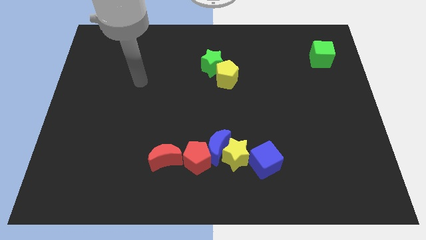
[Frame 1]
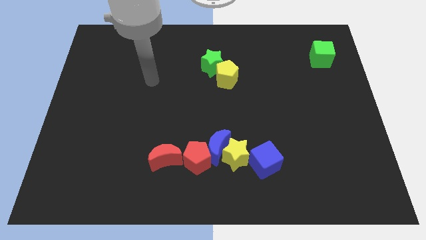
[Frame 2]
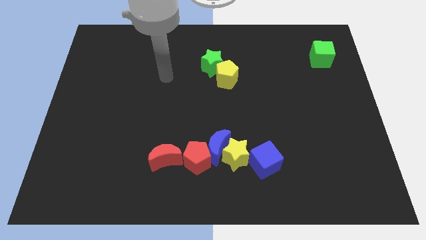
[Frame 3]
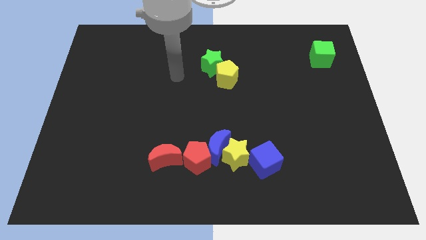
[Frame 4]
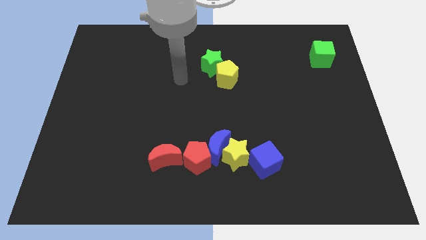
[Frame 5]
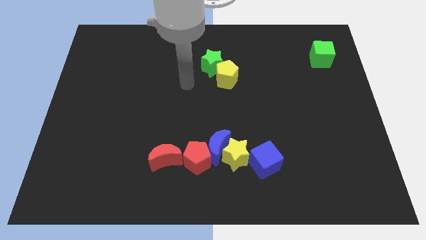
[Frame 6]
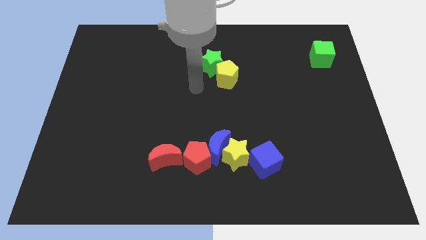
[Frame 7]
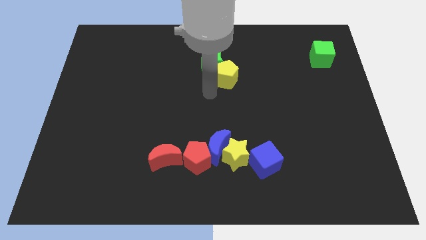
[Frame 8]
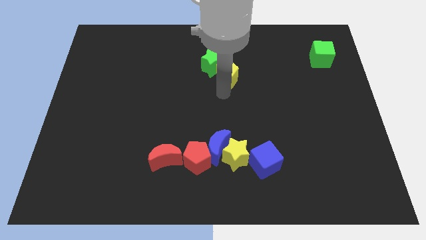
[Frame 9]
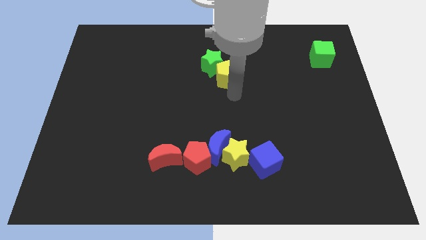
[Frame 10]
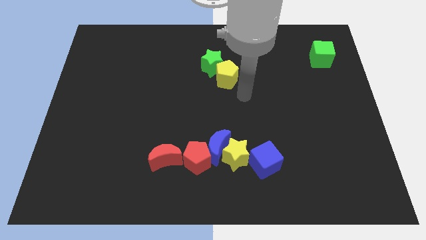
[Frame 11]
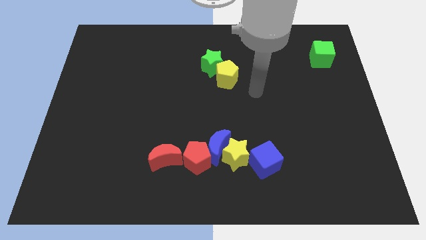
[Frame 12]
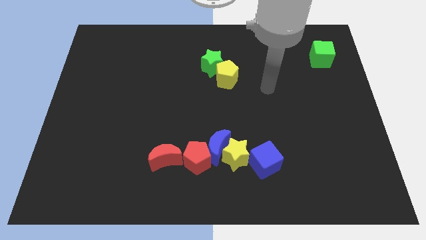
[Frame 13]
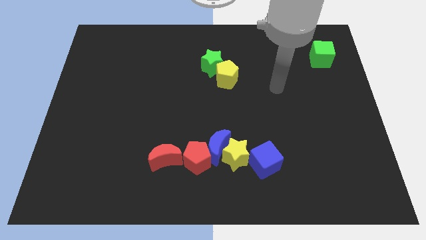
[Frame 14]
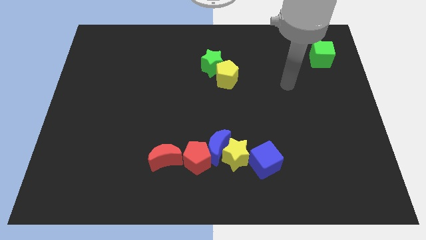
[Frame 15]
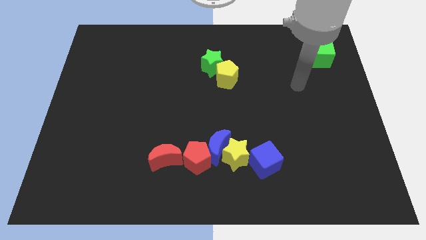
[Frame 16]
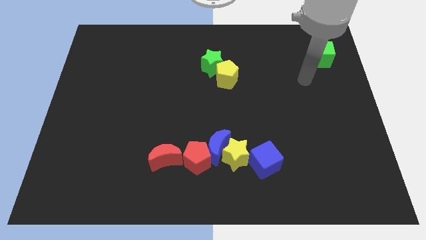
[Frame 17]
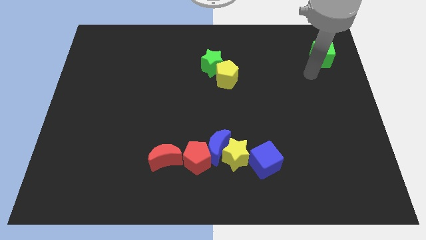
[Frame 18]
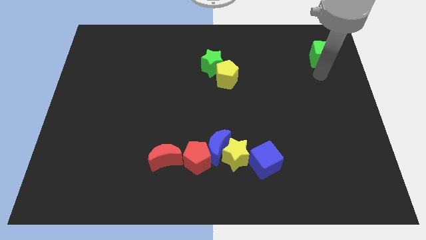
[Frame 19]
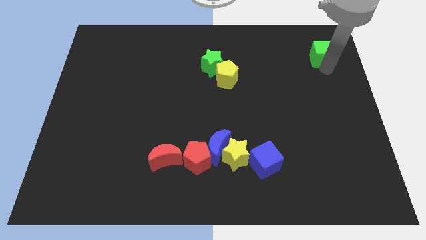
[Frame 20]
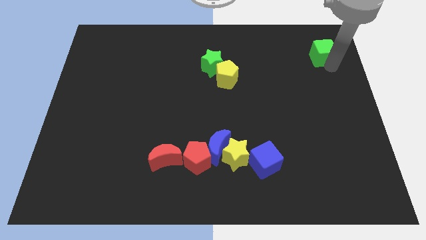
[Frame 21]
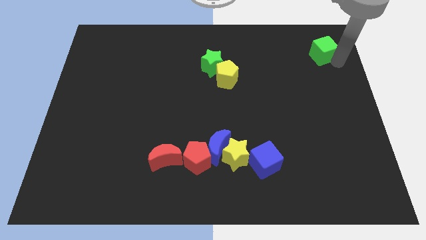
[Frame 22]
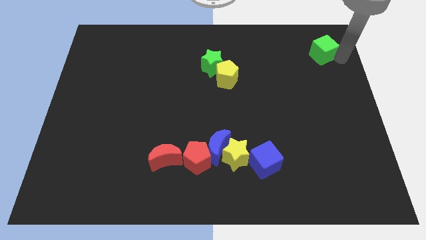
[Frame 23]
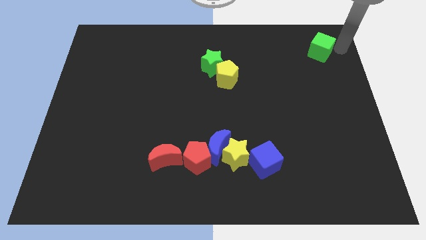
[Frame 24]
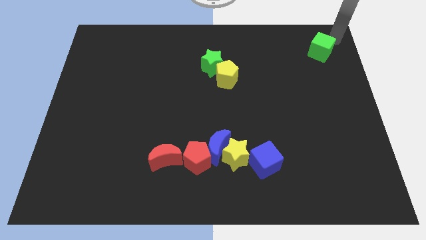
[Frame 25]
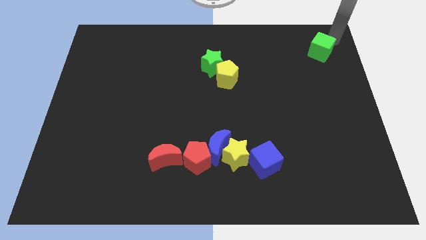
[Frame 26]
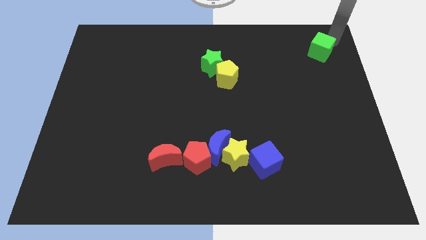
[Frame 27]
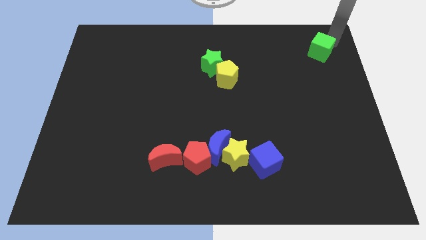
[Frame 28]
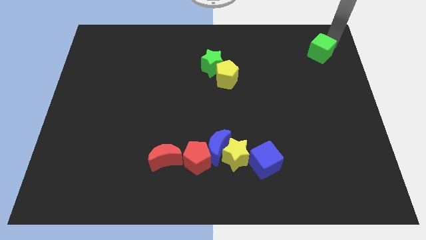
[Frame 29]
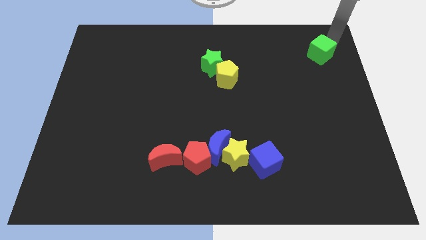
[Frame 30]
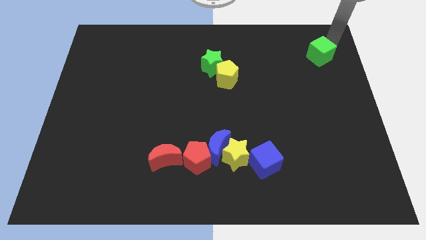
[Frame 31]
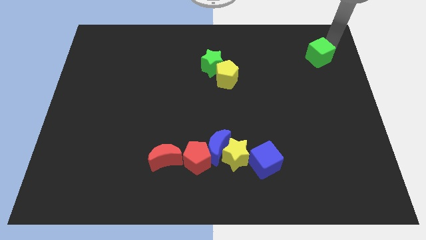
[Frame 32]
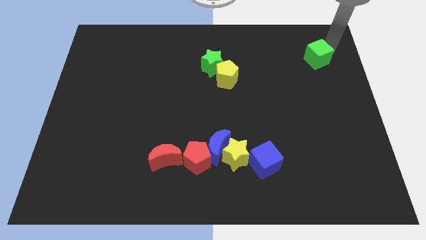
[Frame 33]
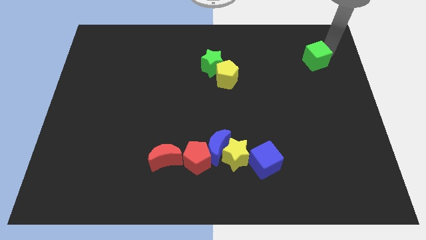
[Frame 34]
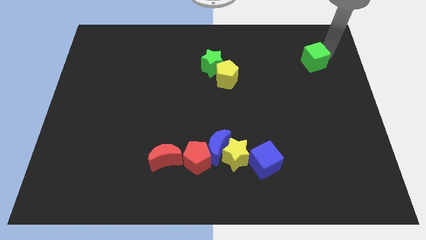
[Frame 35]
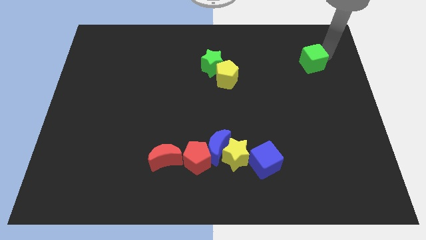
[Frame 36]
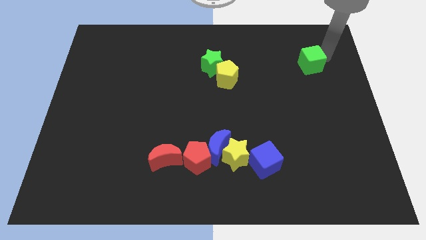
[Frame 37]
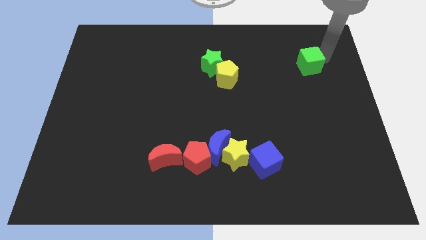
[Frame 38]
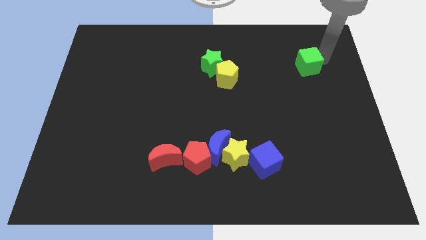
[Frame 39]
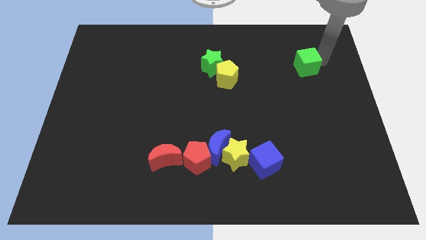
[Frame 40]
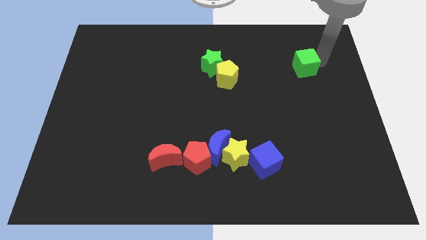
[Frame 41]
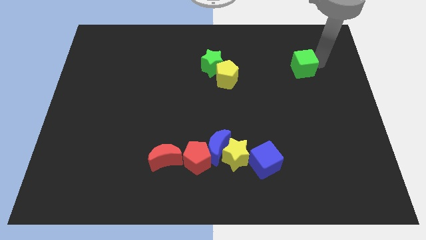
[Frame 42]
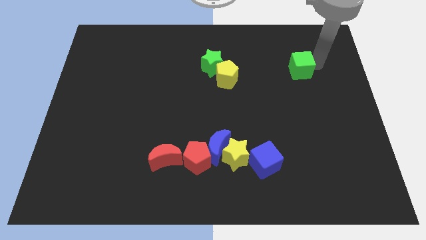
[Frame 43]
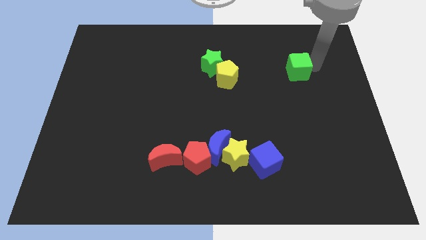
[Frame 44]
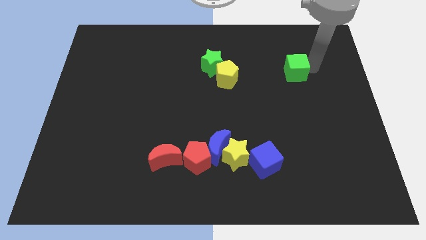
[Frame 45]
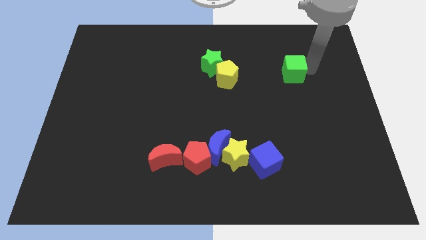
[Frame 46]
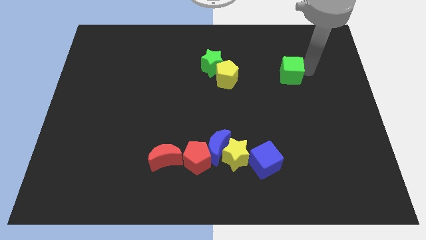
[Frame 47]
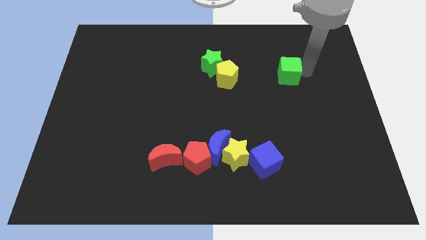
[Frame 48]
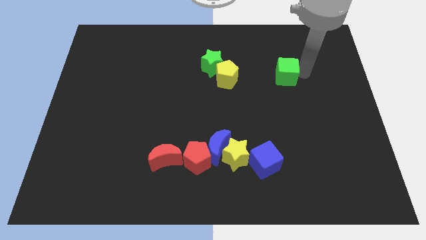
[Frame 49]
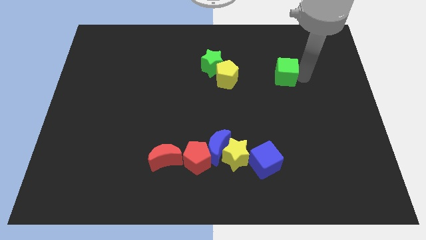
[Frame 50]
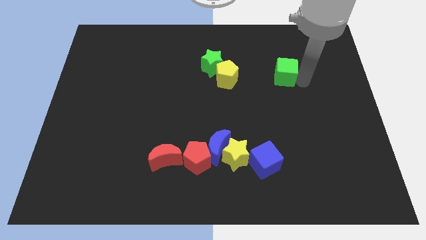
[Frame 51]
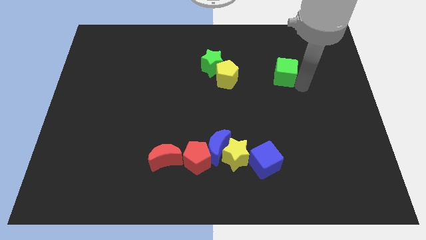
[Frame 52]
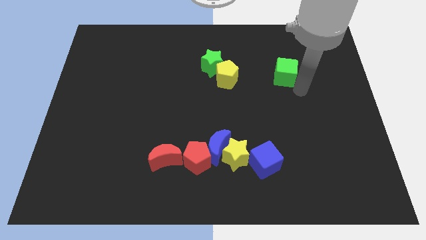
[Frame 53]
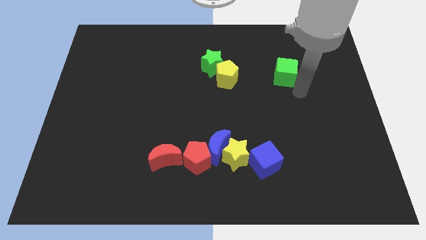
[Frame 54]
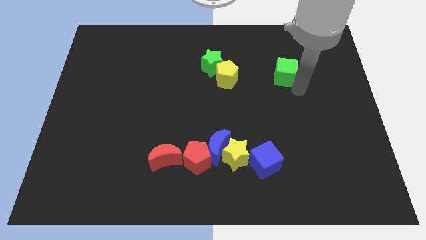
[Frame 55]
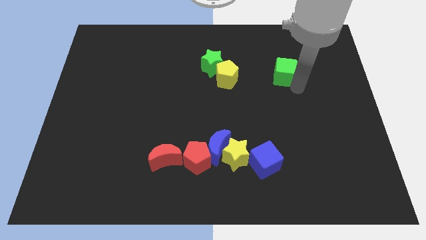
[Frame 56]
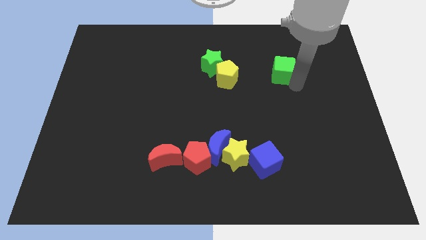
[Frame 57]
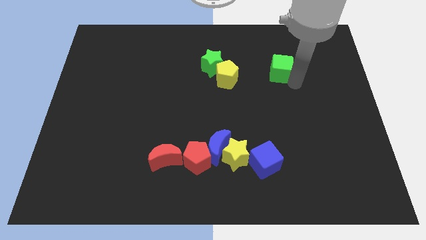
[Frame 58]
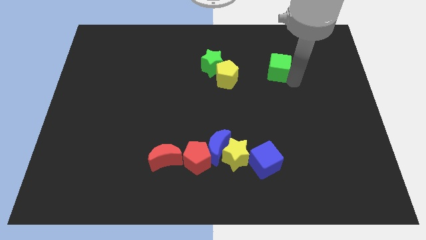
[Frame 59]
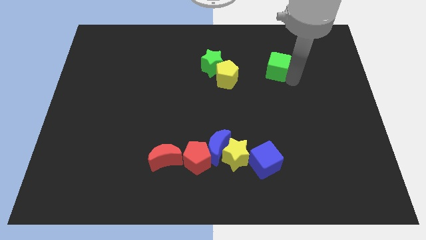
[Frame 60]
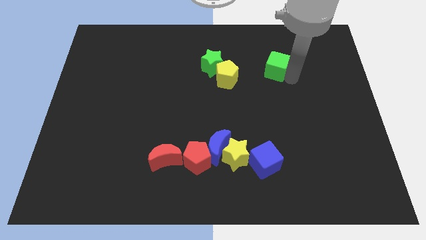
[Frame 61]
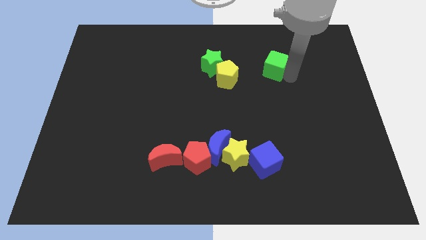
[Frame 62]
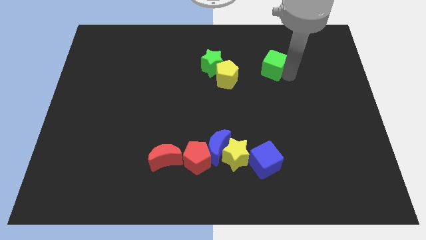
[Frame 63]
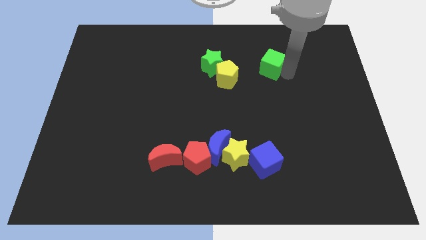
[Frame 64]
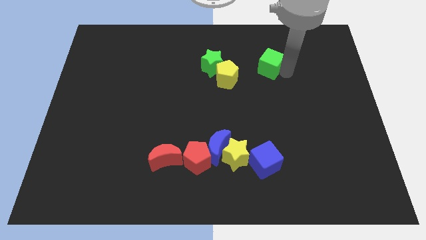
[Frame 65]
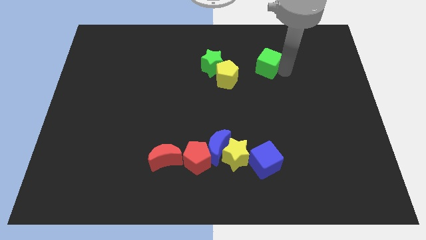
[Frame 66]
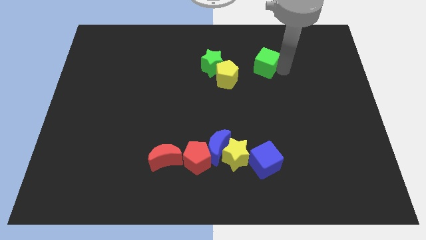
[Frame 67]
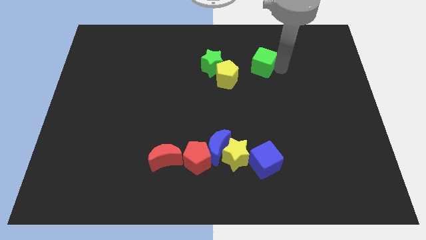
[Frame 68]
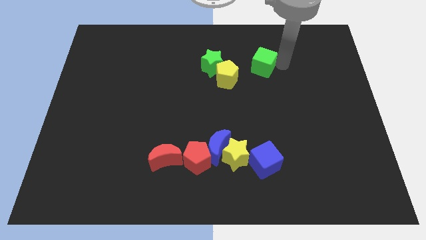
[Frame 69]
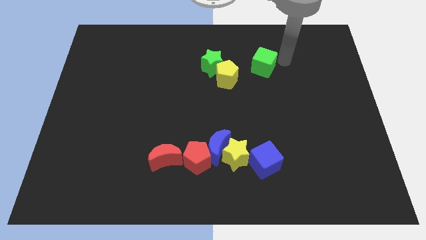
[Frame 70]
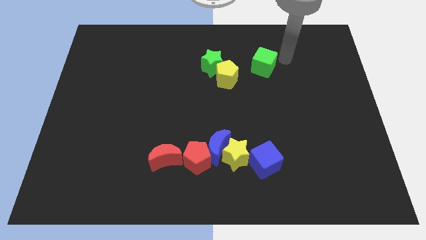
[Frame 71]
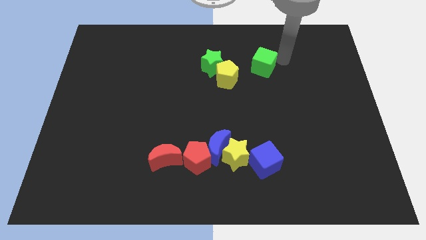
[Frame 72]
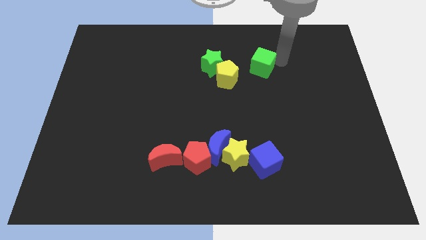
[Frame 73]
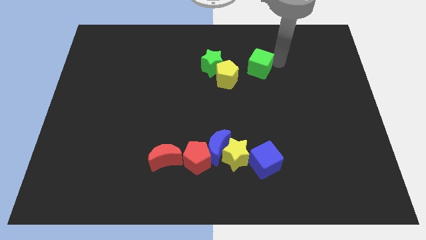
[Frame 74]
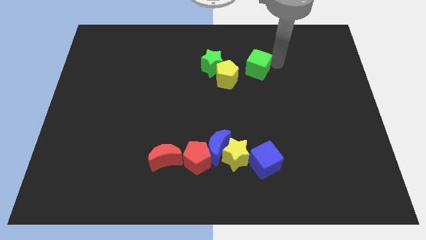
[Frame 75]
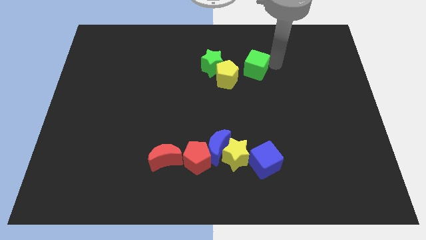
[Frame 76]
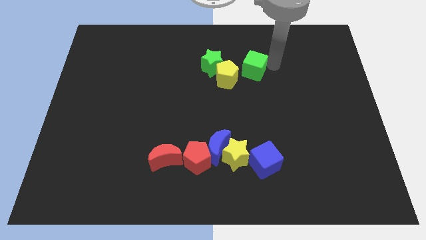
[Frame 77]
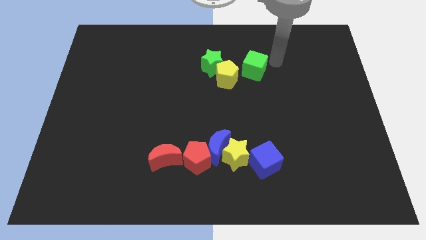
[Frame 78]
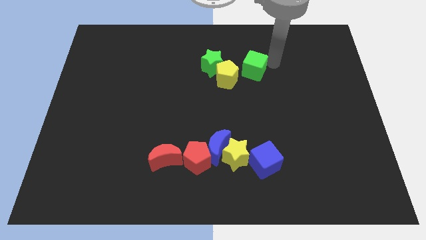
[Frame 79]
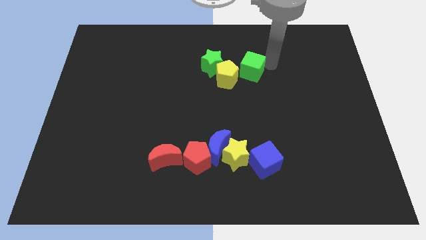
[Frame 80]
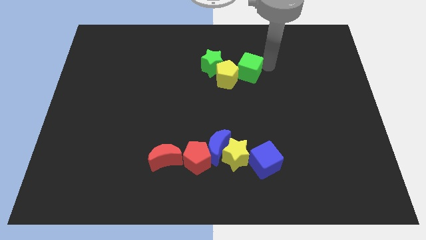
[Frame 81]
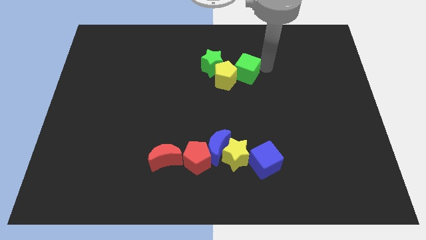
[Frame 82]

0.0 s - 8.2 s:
push the green cube towards the yellow pentagon
